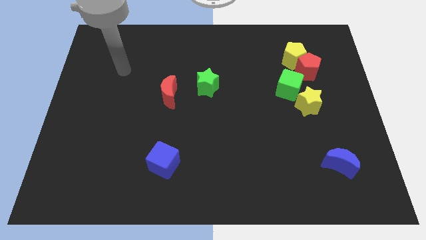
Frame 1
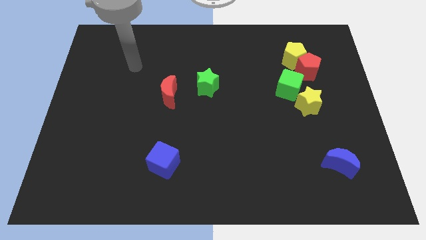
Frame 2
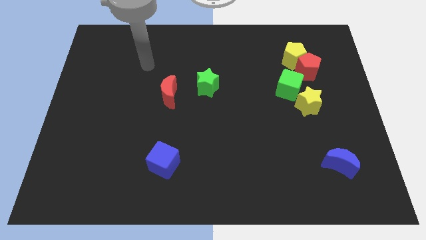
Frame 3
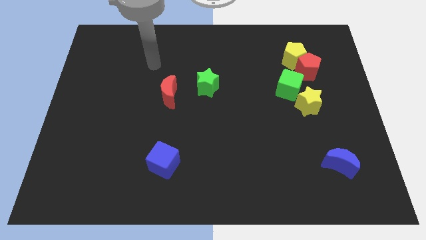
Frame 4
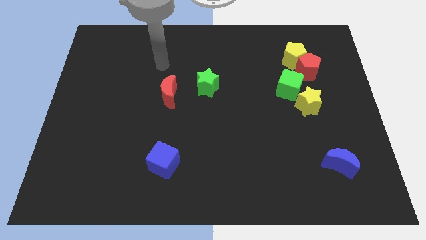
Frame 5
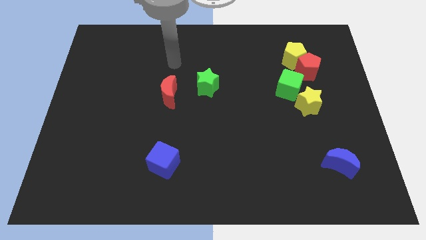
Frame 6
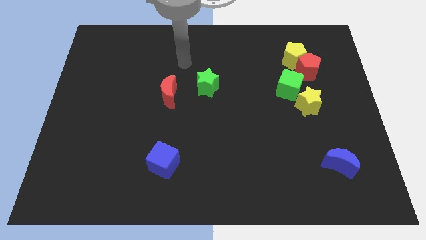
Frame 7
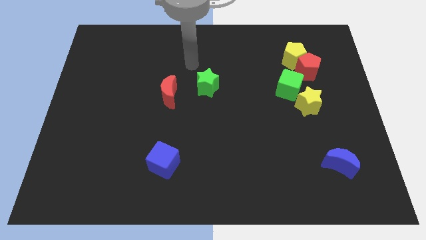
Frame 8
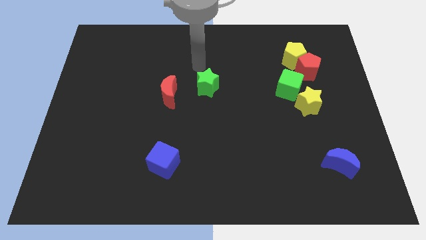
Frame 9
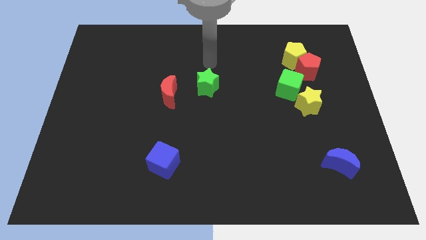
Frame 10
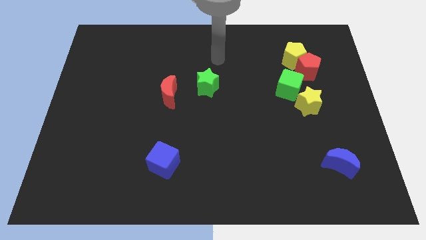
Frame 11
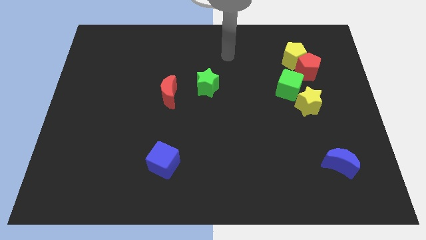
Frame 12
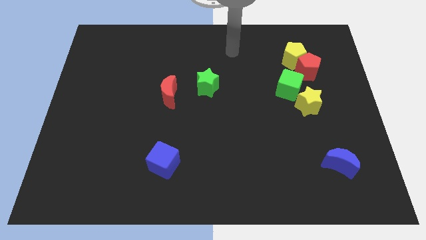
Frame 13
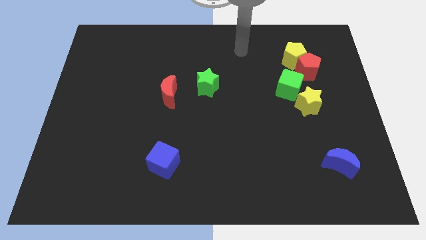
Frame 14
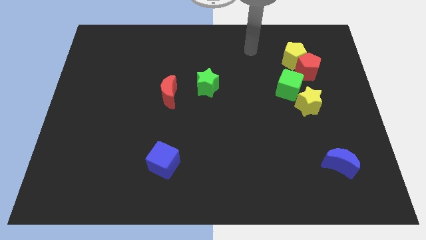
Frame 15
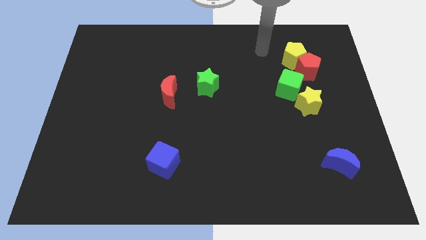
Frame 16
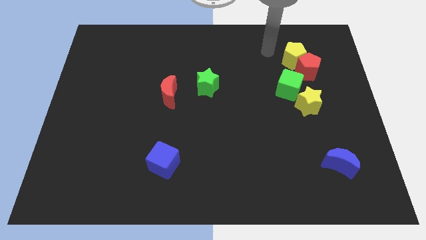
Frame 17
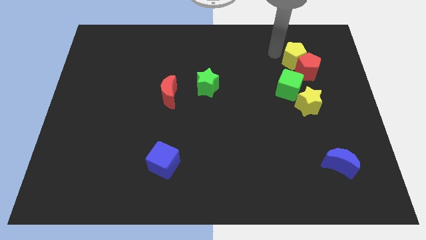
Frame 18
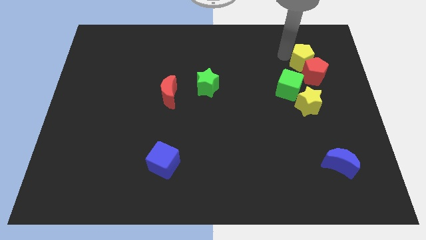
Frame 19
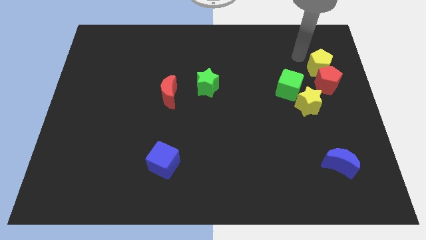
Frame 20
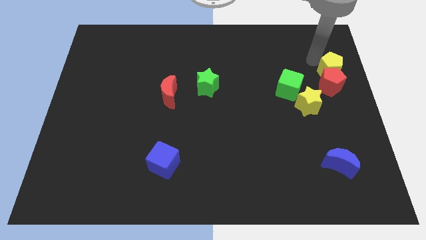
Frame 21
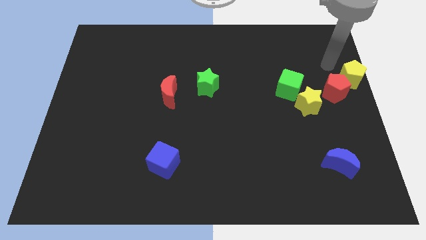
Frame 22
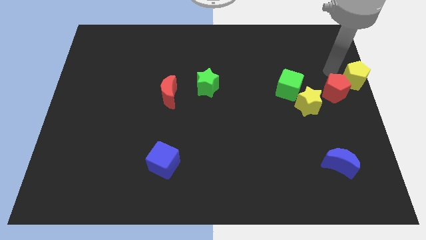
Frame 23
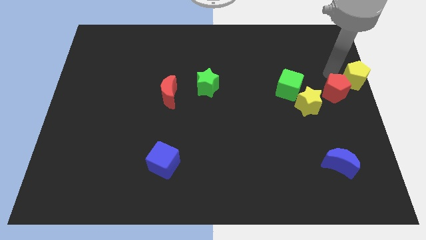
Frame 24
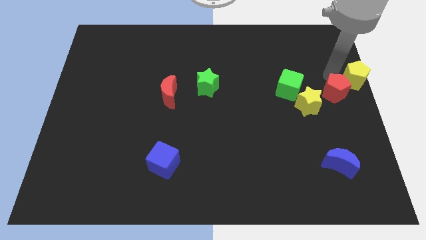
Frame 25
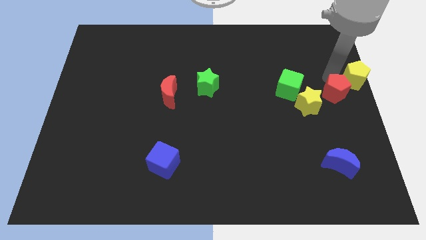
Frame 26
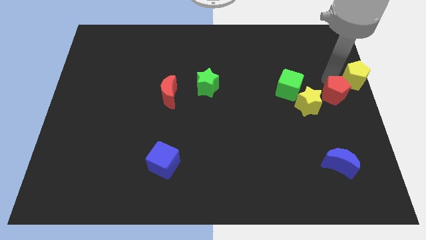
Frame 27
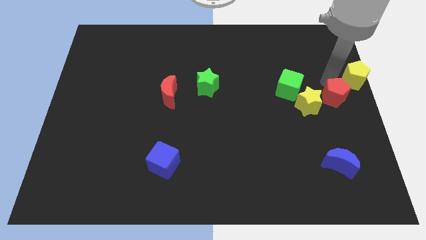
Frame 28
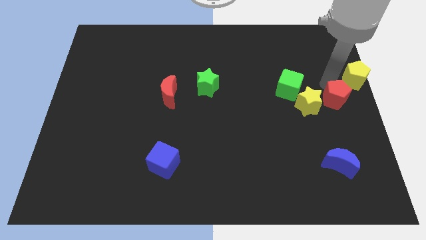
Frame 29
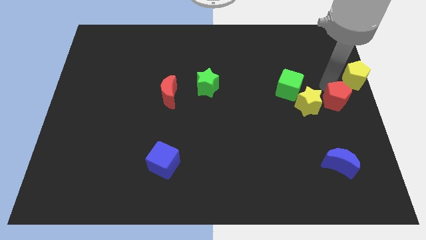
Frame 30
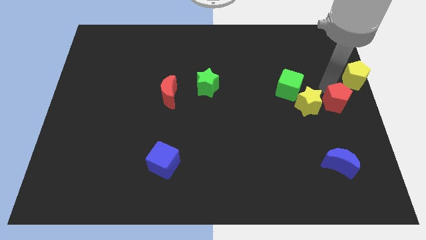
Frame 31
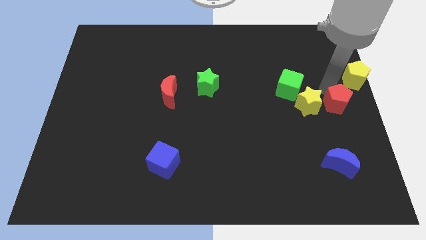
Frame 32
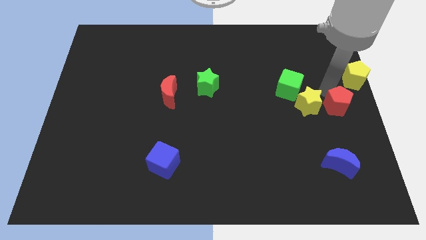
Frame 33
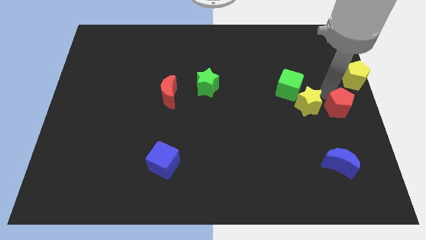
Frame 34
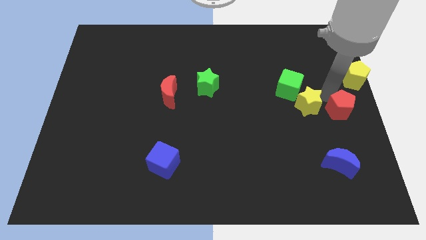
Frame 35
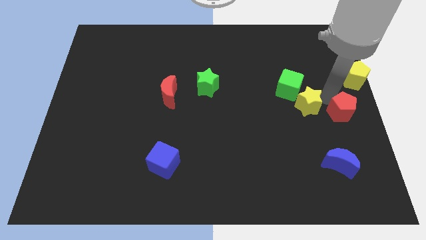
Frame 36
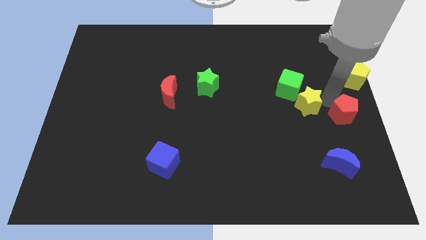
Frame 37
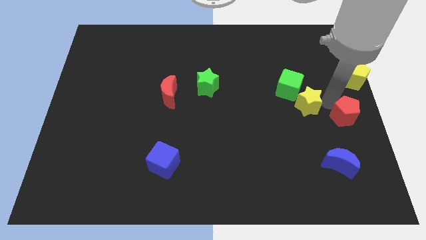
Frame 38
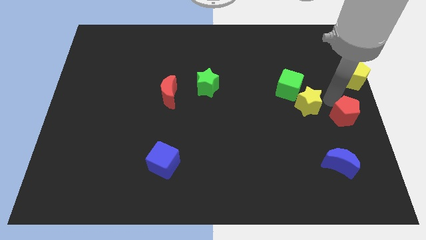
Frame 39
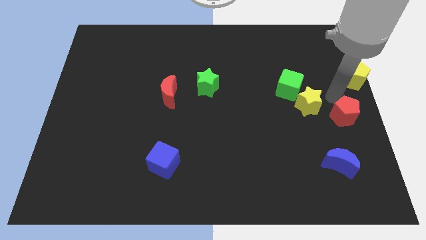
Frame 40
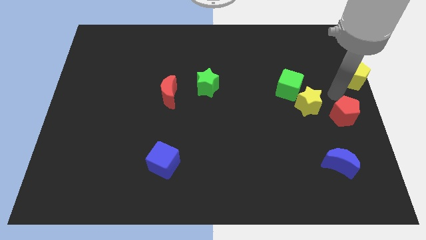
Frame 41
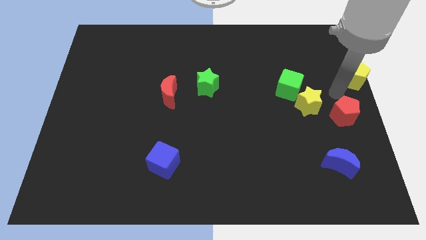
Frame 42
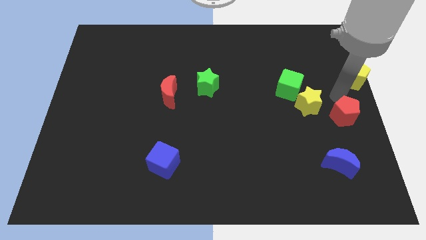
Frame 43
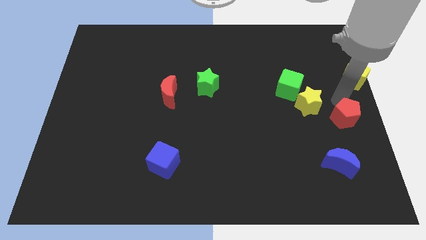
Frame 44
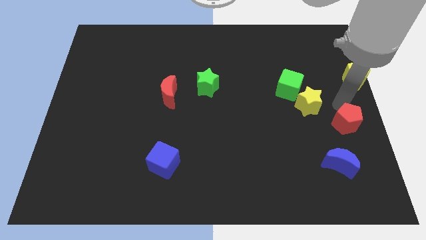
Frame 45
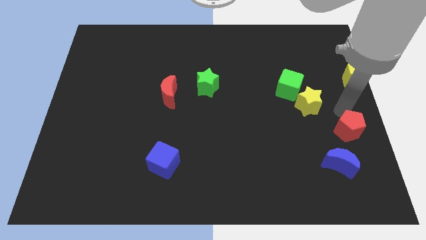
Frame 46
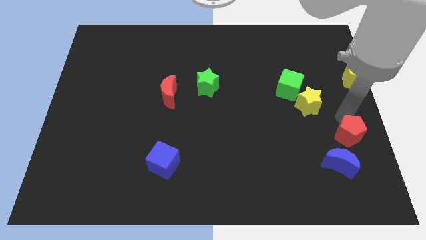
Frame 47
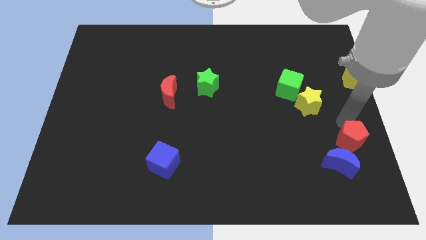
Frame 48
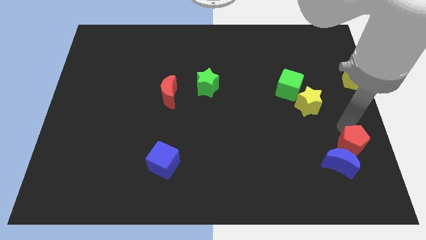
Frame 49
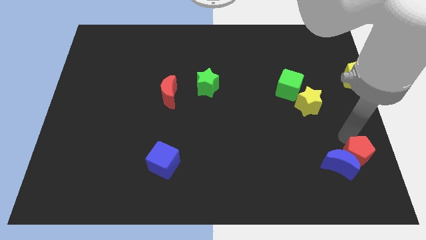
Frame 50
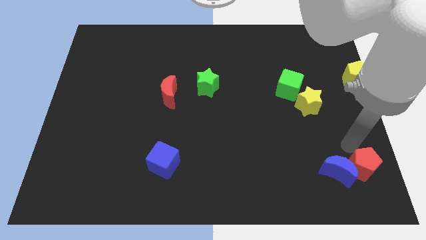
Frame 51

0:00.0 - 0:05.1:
put the red pentagon to the bottom right corner

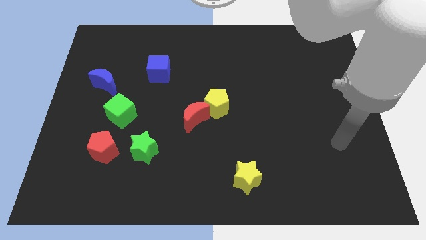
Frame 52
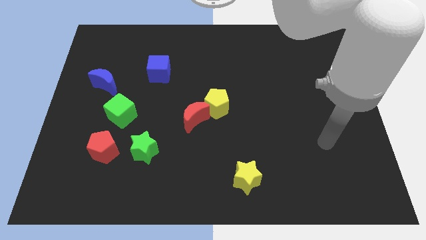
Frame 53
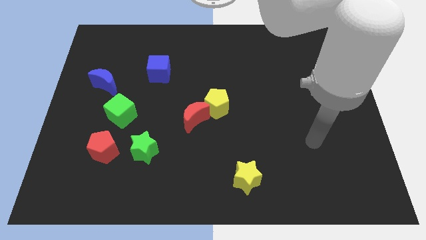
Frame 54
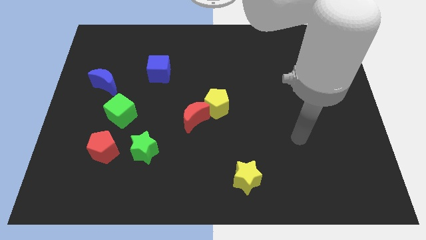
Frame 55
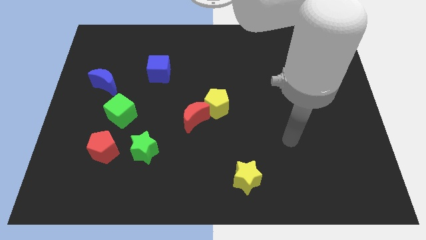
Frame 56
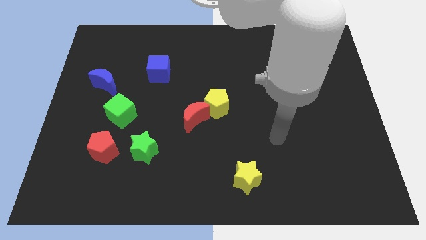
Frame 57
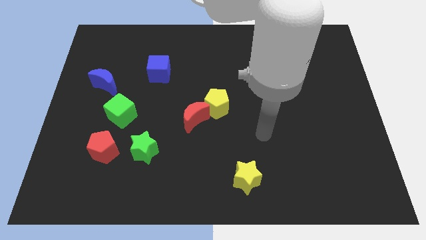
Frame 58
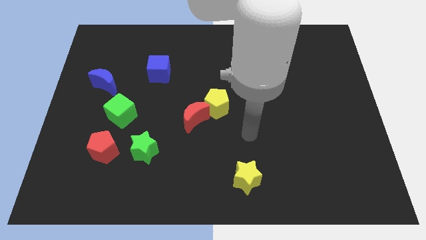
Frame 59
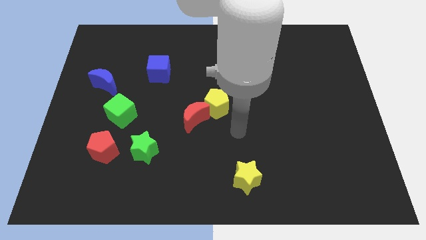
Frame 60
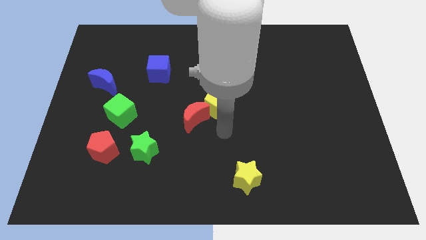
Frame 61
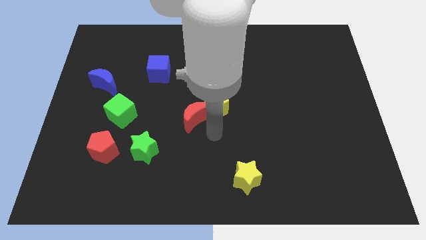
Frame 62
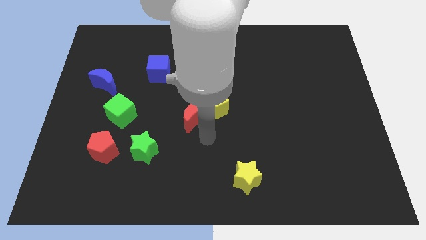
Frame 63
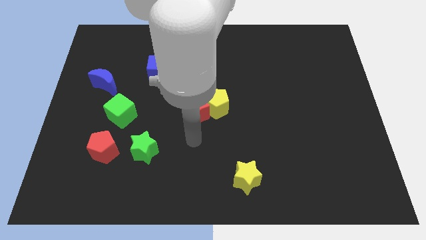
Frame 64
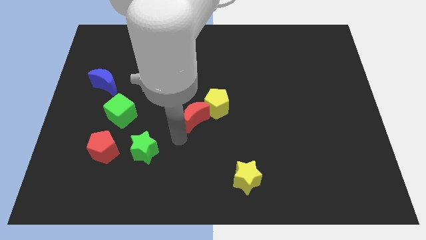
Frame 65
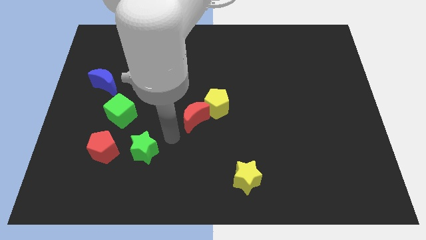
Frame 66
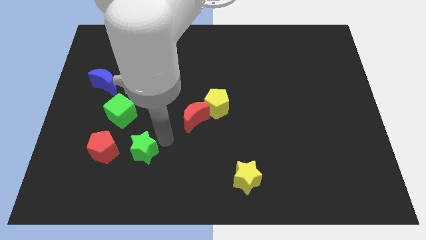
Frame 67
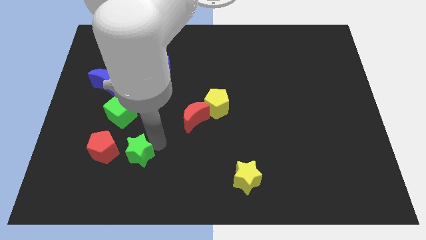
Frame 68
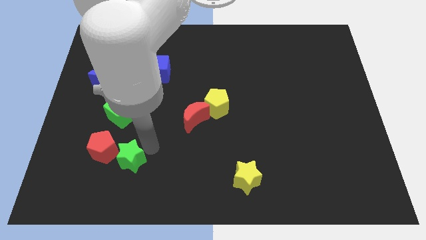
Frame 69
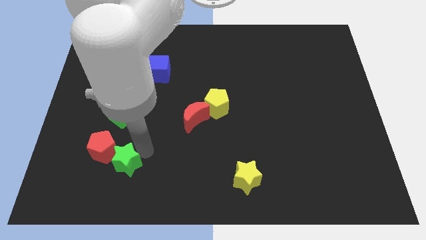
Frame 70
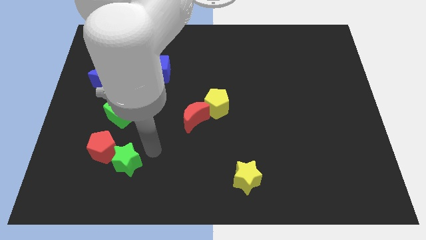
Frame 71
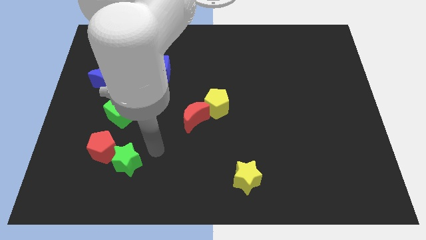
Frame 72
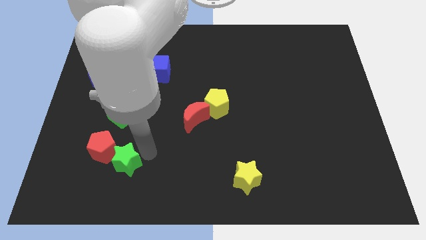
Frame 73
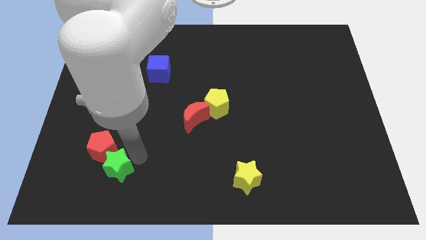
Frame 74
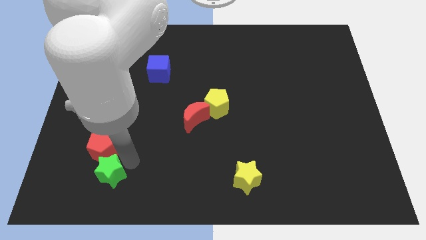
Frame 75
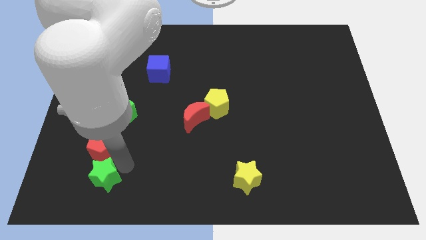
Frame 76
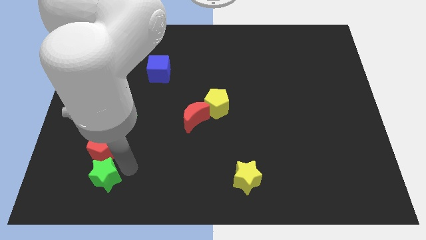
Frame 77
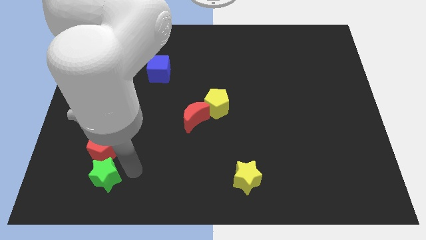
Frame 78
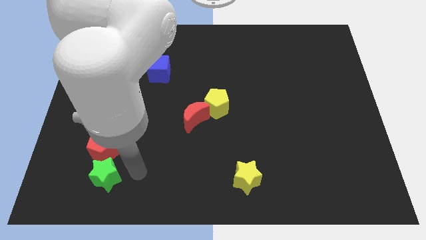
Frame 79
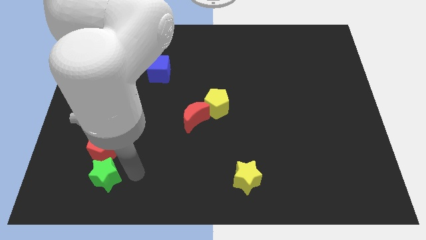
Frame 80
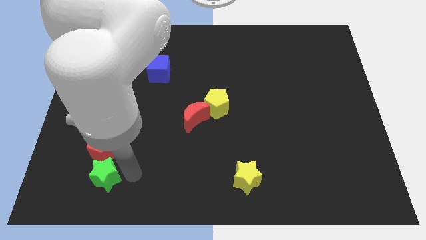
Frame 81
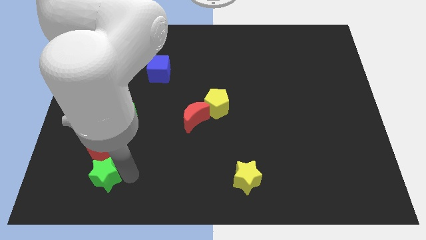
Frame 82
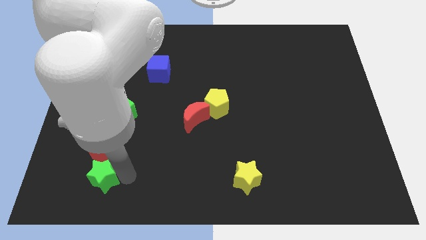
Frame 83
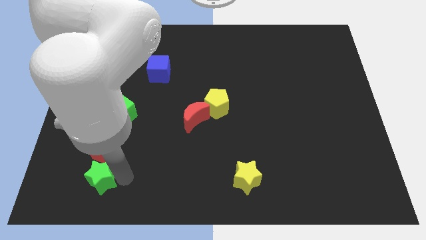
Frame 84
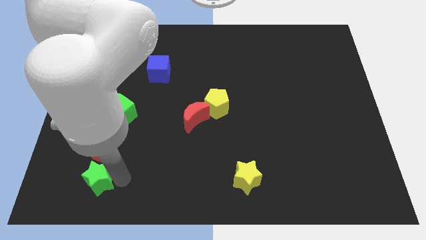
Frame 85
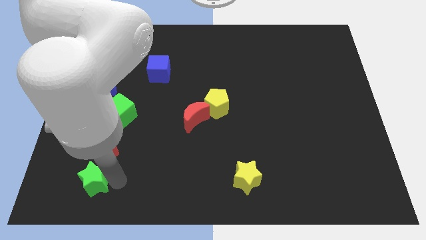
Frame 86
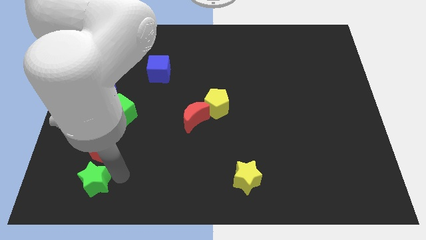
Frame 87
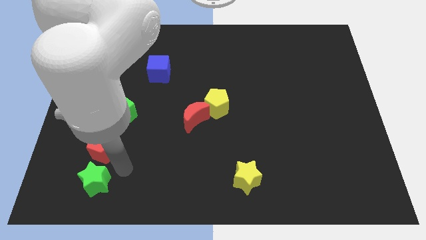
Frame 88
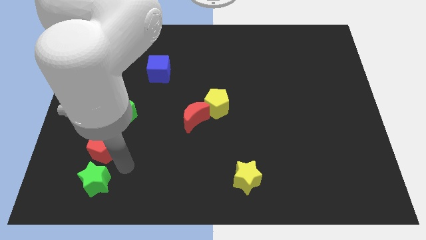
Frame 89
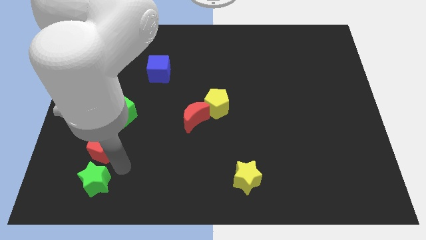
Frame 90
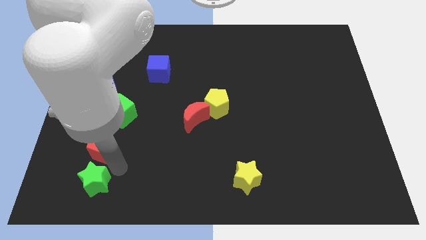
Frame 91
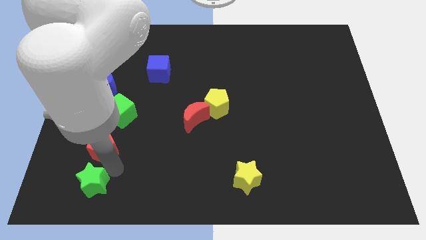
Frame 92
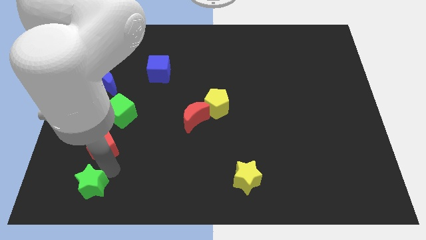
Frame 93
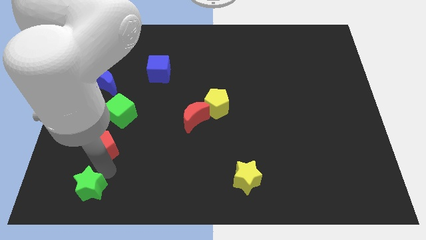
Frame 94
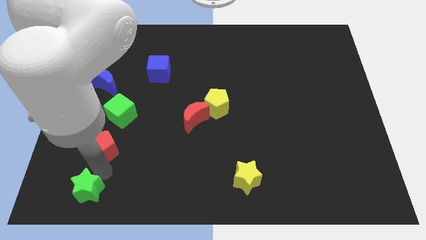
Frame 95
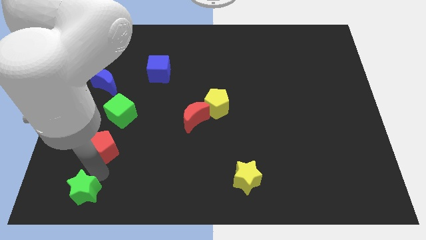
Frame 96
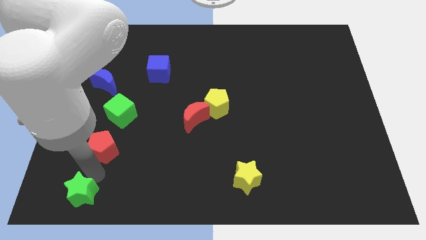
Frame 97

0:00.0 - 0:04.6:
put the green star to the bottom left corner
